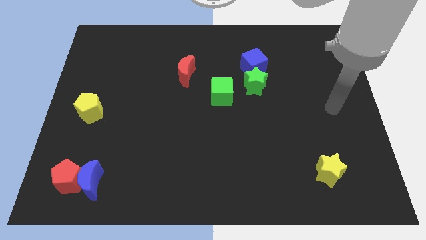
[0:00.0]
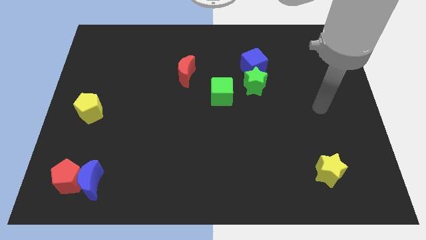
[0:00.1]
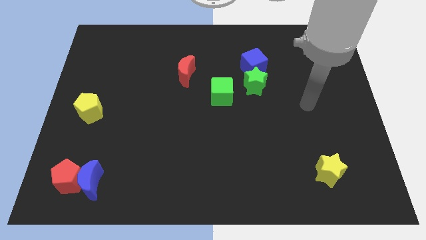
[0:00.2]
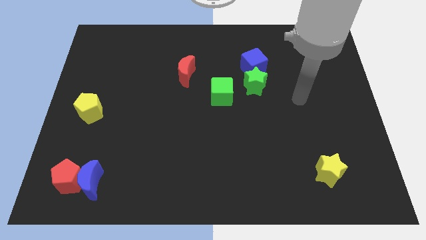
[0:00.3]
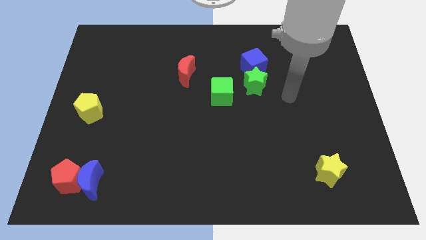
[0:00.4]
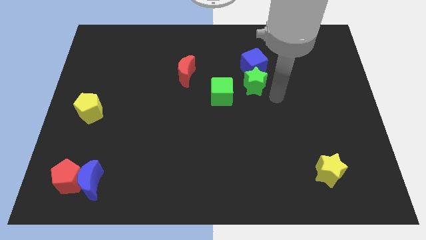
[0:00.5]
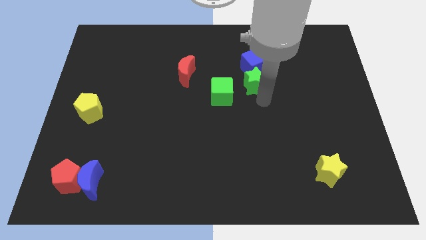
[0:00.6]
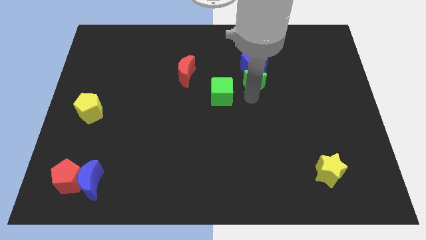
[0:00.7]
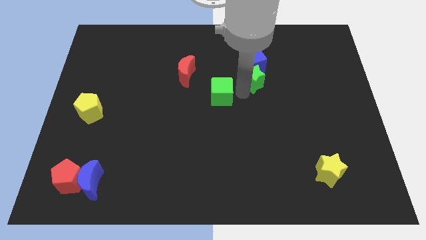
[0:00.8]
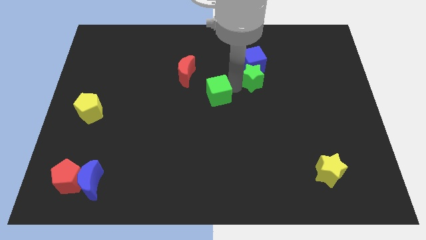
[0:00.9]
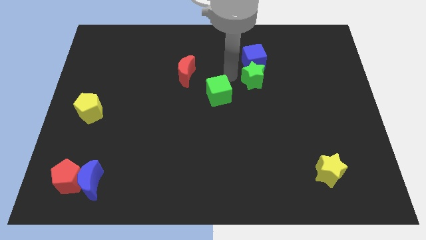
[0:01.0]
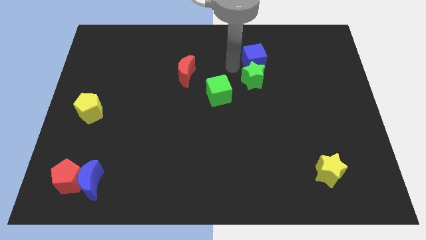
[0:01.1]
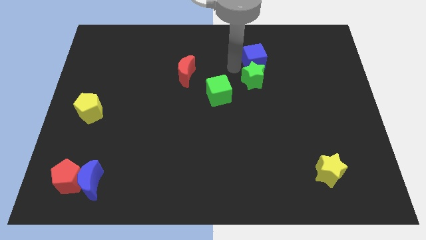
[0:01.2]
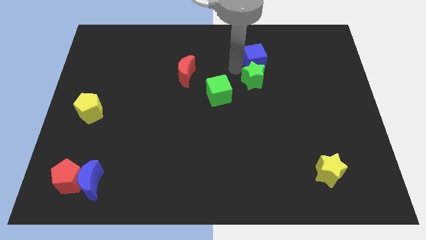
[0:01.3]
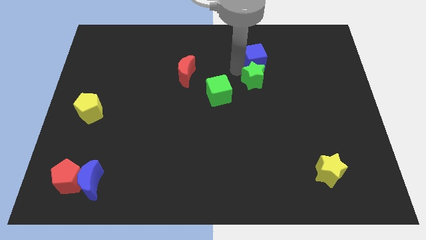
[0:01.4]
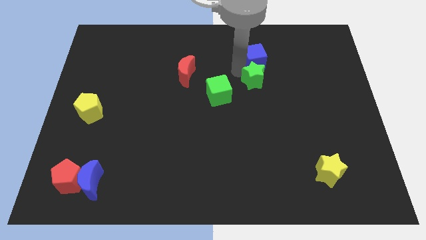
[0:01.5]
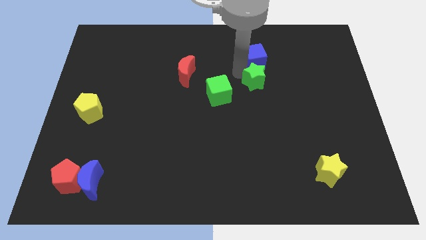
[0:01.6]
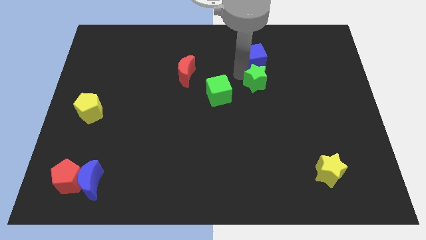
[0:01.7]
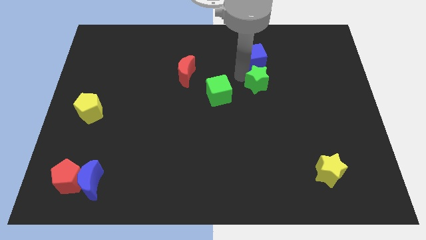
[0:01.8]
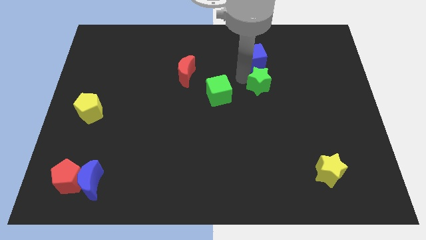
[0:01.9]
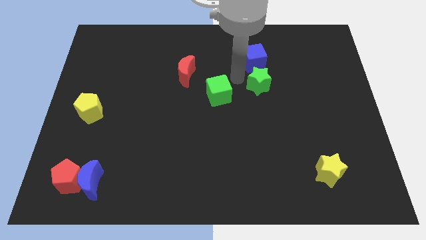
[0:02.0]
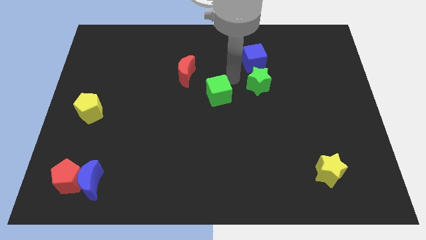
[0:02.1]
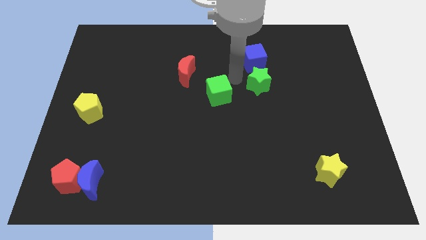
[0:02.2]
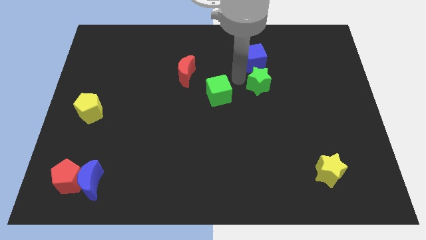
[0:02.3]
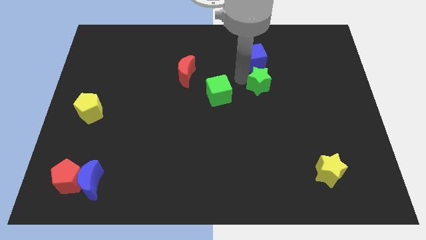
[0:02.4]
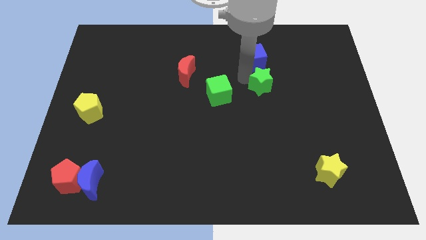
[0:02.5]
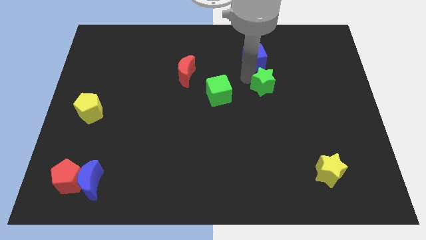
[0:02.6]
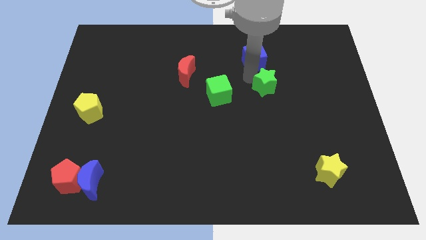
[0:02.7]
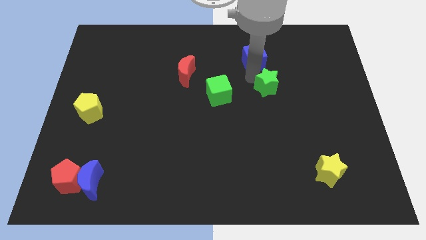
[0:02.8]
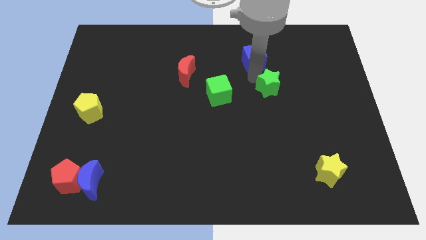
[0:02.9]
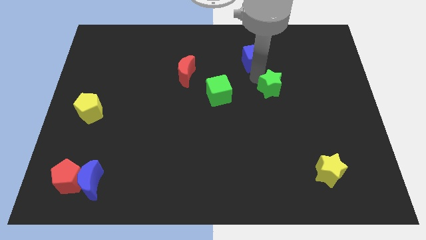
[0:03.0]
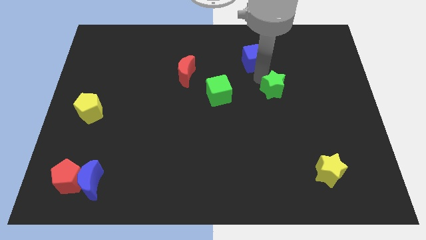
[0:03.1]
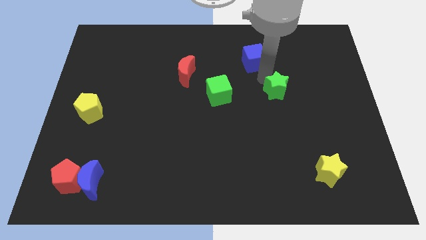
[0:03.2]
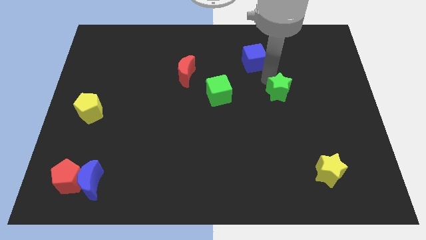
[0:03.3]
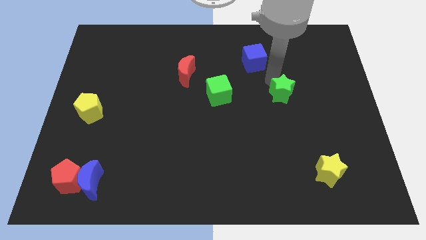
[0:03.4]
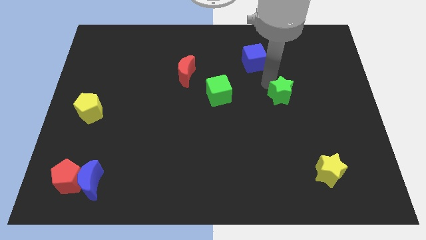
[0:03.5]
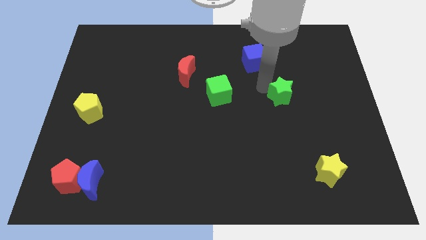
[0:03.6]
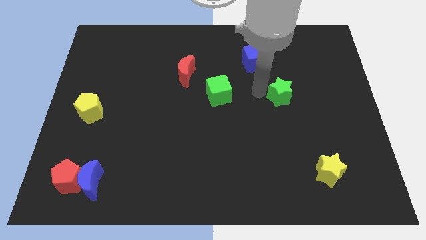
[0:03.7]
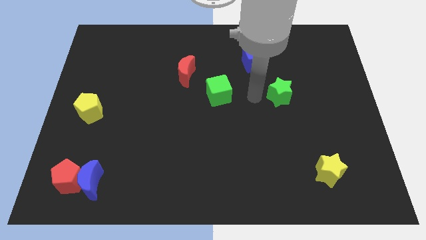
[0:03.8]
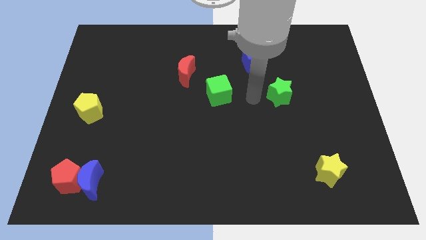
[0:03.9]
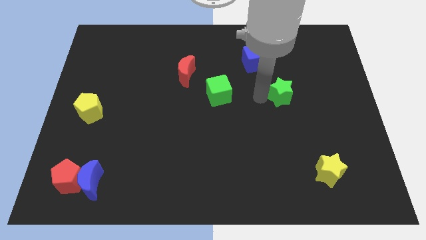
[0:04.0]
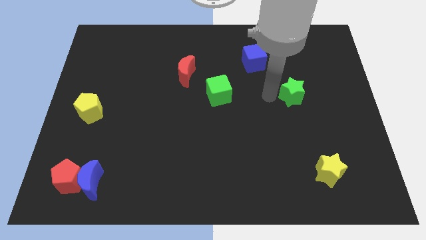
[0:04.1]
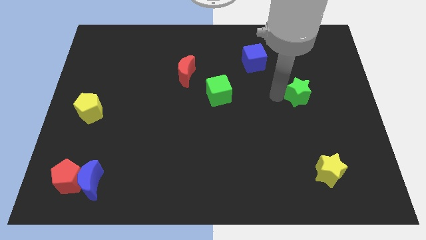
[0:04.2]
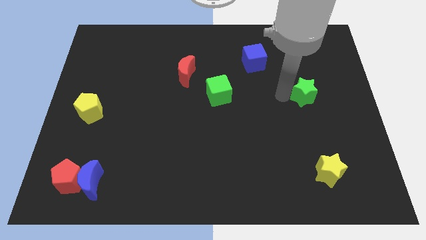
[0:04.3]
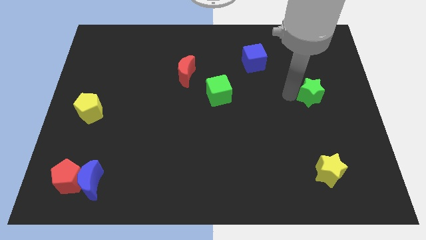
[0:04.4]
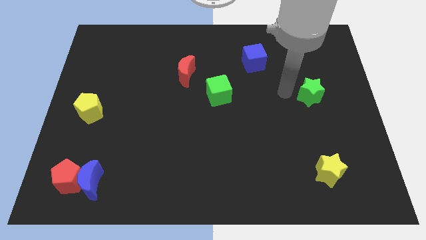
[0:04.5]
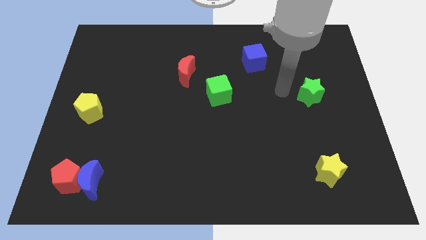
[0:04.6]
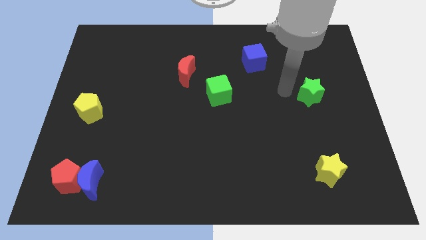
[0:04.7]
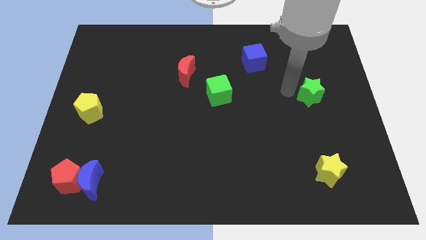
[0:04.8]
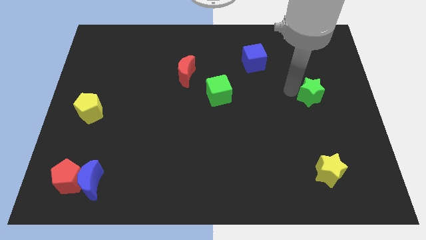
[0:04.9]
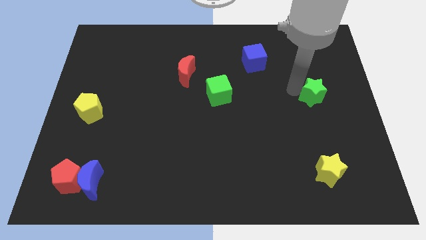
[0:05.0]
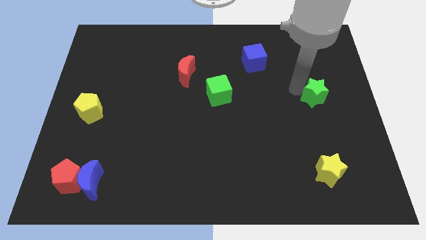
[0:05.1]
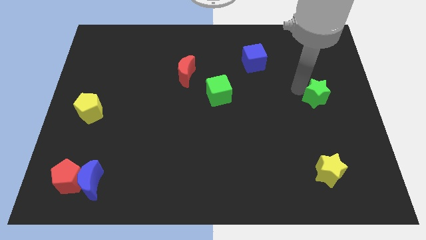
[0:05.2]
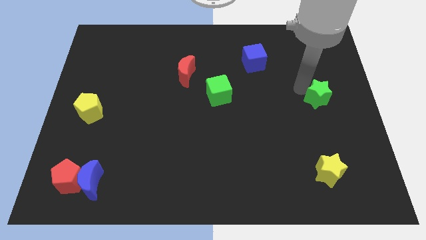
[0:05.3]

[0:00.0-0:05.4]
push the green star to the right side of the board

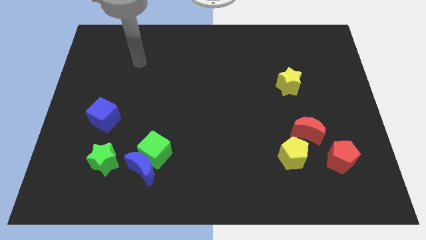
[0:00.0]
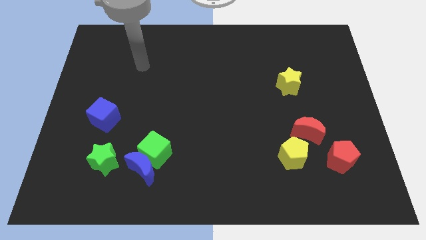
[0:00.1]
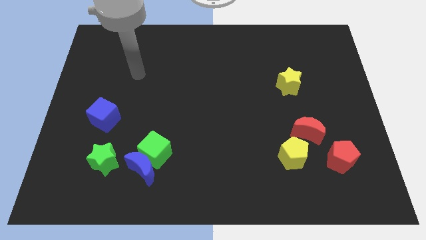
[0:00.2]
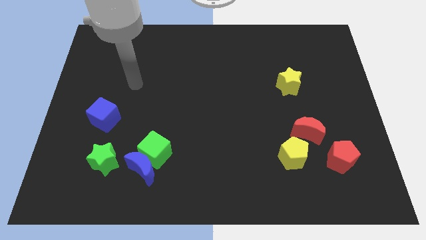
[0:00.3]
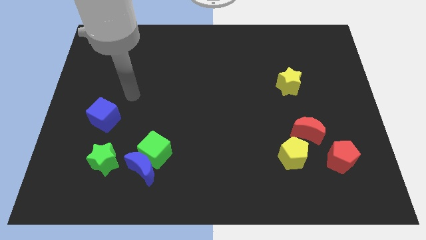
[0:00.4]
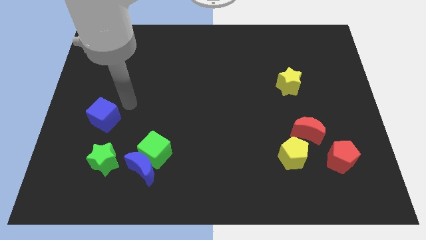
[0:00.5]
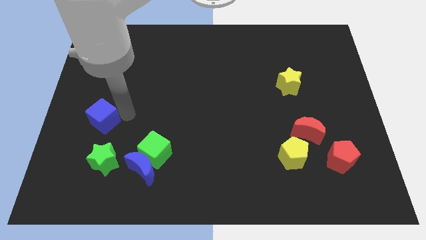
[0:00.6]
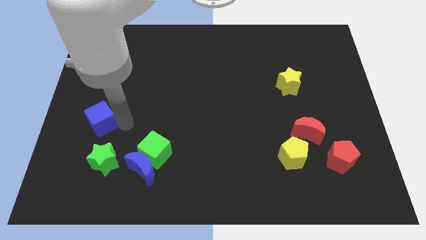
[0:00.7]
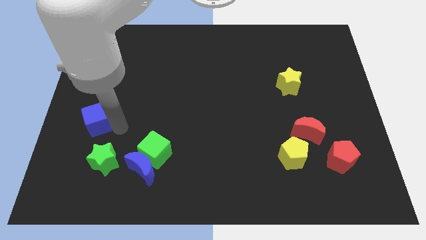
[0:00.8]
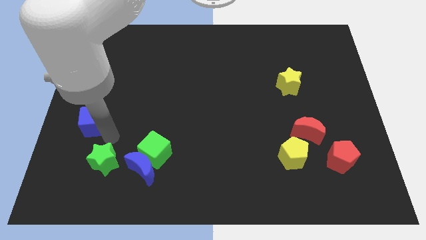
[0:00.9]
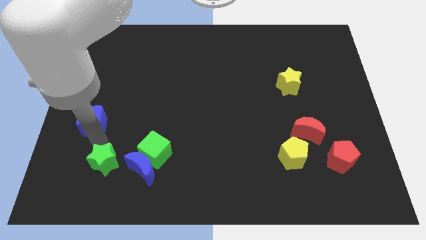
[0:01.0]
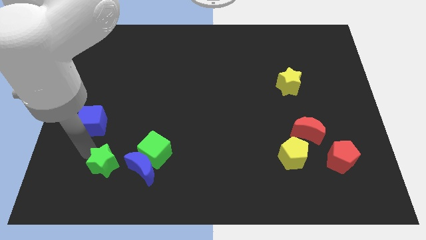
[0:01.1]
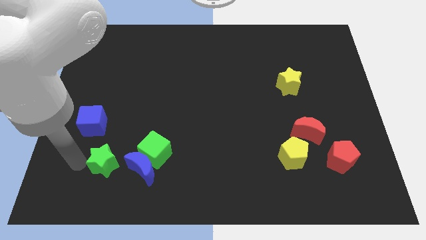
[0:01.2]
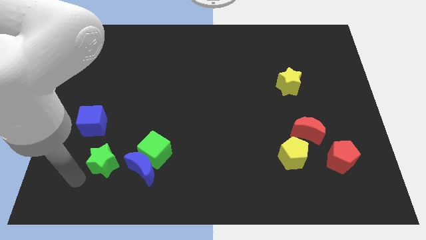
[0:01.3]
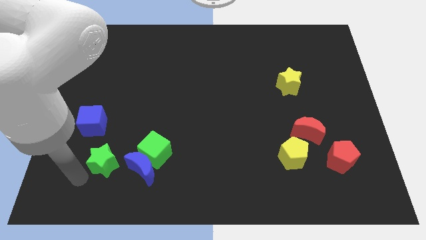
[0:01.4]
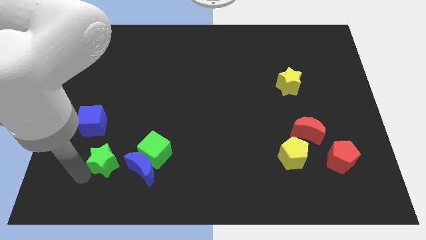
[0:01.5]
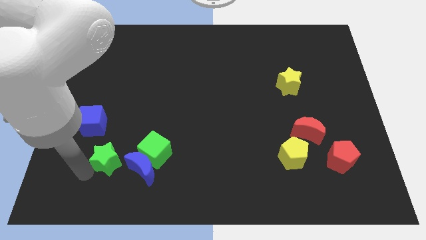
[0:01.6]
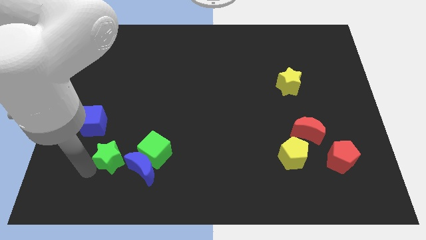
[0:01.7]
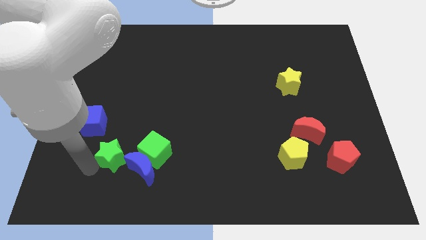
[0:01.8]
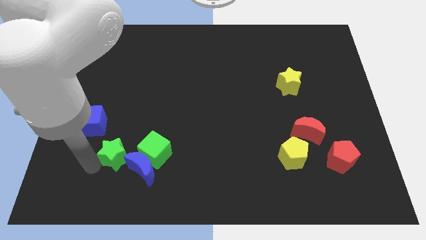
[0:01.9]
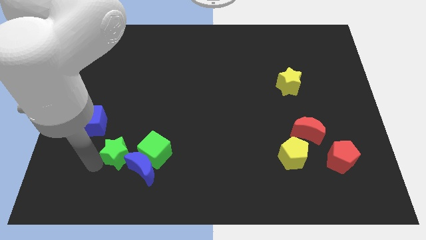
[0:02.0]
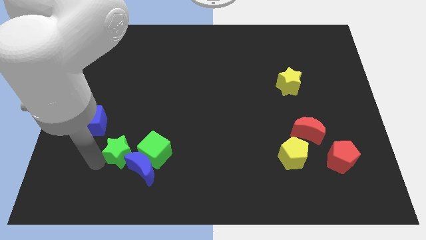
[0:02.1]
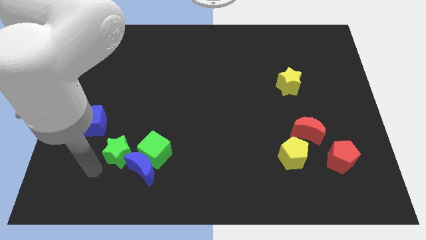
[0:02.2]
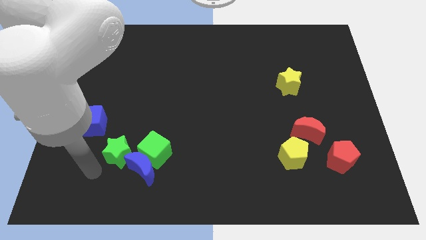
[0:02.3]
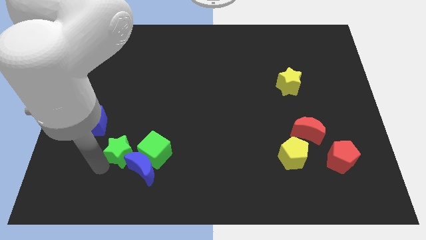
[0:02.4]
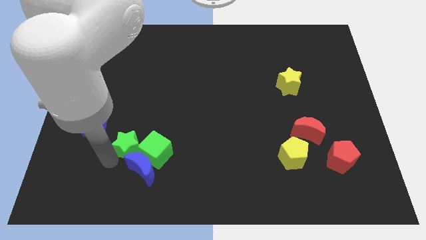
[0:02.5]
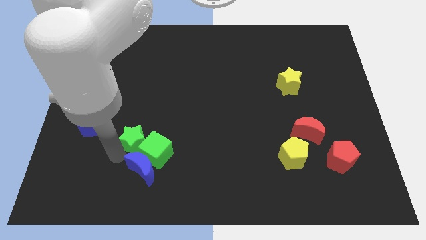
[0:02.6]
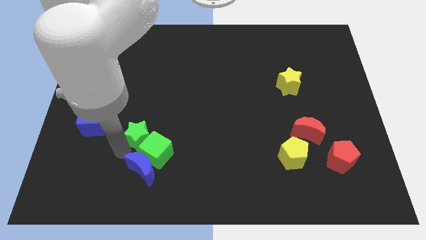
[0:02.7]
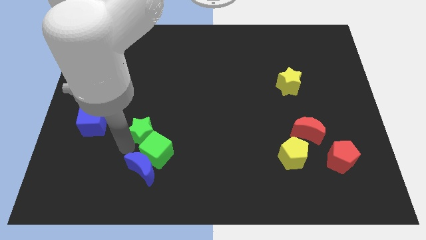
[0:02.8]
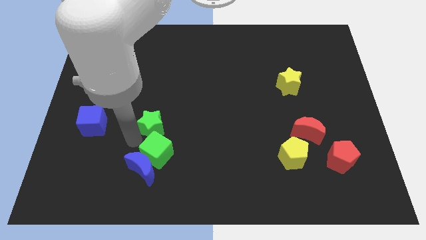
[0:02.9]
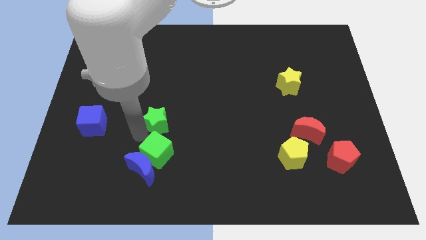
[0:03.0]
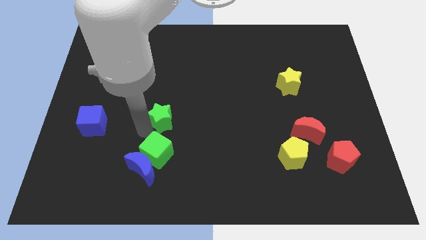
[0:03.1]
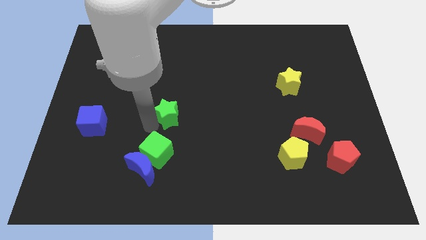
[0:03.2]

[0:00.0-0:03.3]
move the green star to the center
